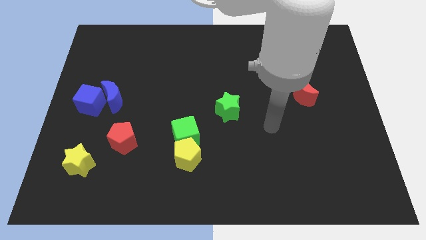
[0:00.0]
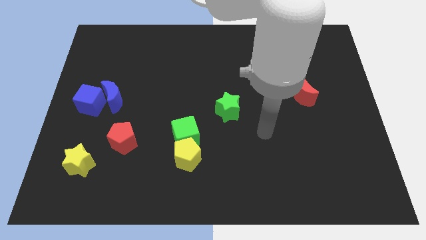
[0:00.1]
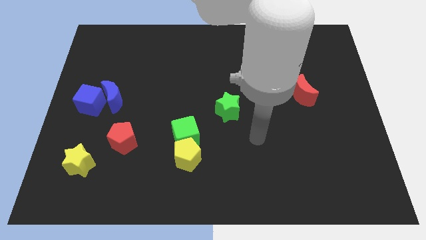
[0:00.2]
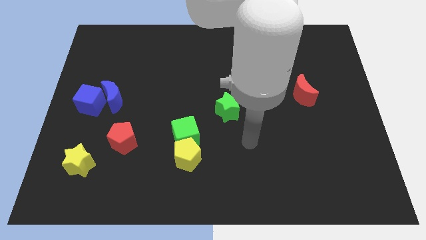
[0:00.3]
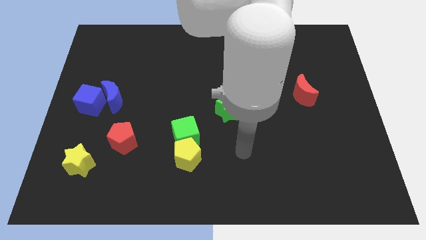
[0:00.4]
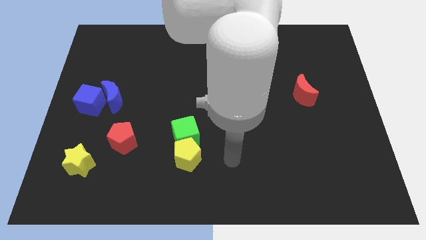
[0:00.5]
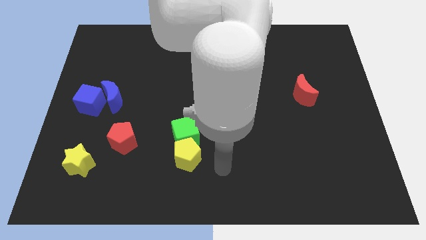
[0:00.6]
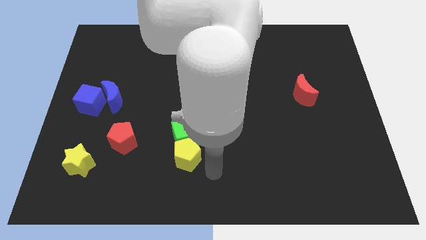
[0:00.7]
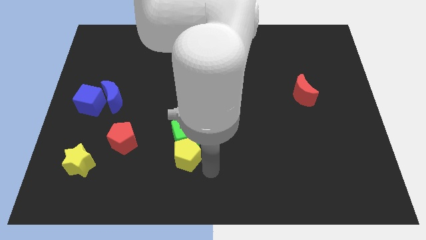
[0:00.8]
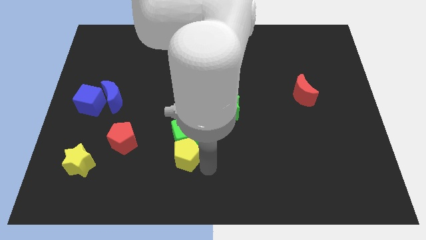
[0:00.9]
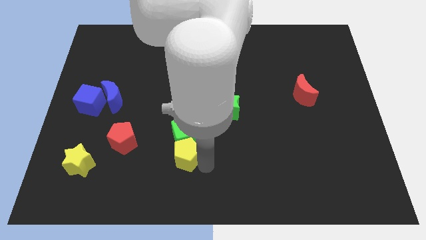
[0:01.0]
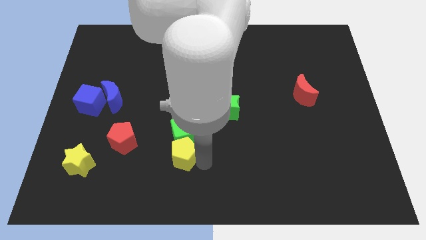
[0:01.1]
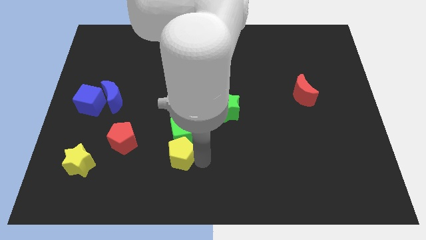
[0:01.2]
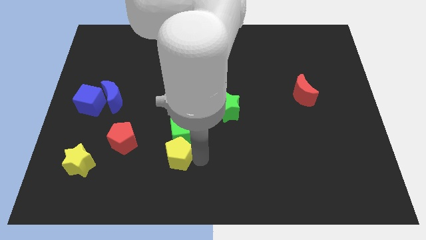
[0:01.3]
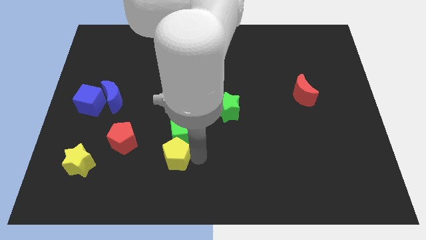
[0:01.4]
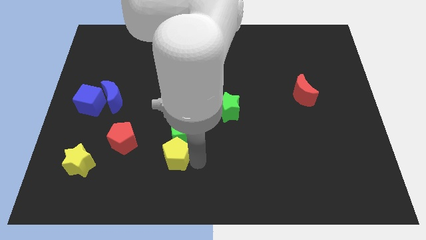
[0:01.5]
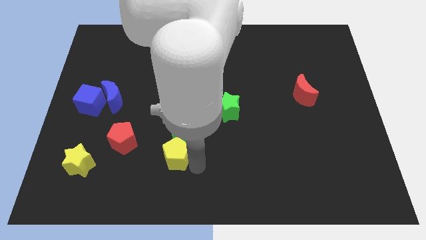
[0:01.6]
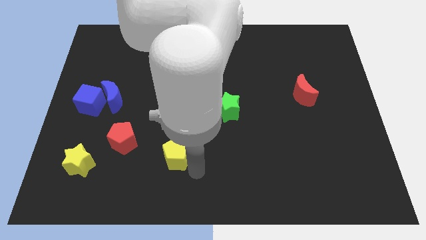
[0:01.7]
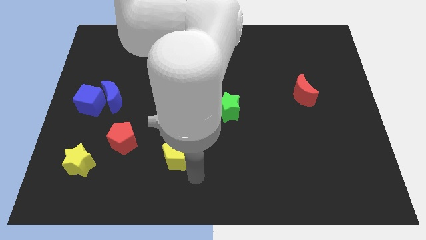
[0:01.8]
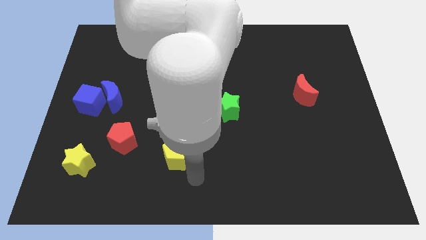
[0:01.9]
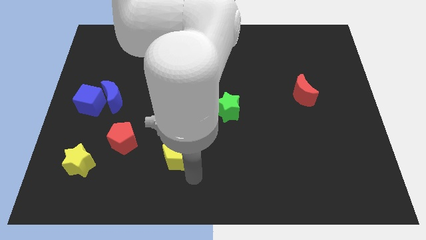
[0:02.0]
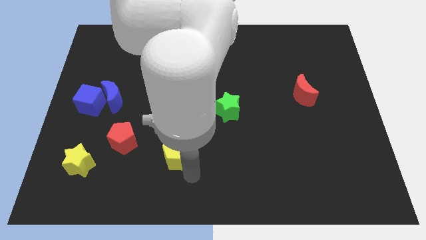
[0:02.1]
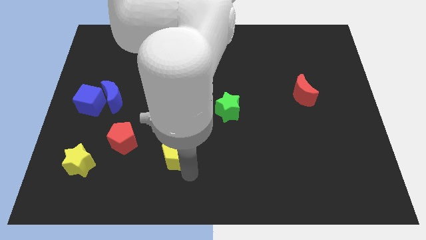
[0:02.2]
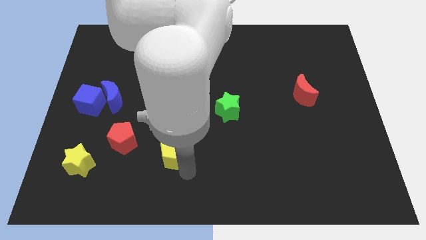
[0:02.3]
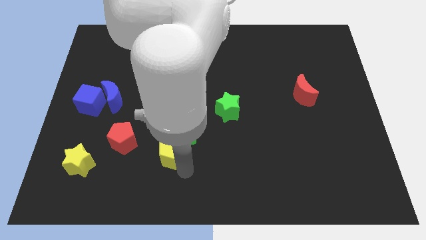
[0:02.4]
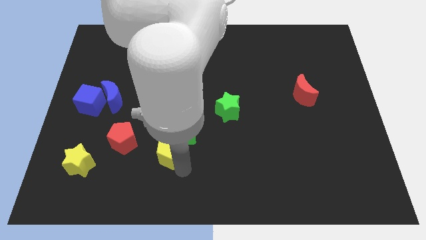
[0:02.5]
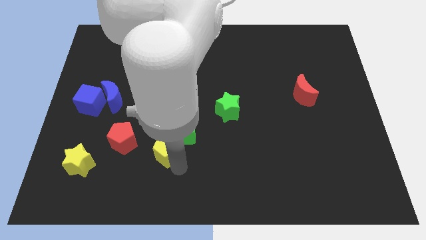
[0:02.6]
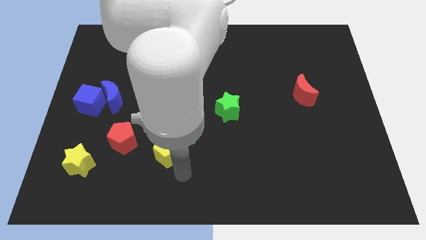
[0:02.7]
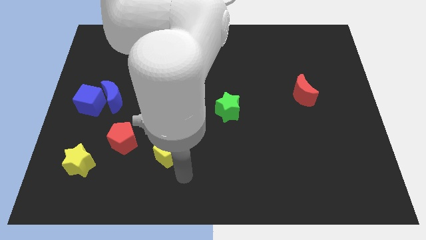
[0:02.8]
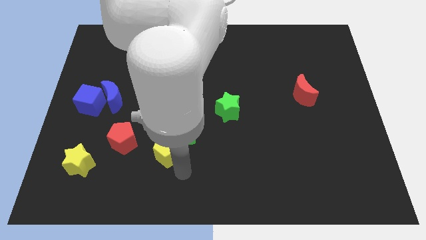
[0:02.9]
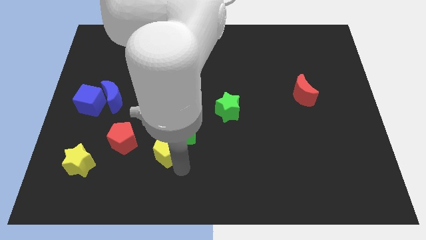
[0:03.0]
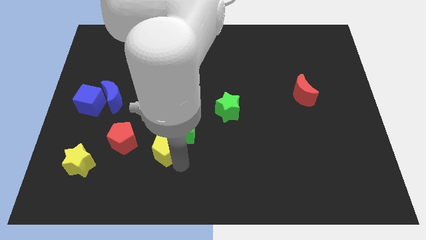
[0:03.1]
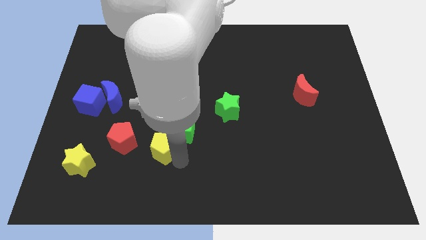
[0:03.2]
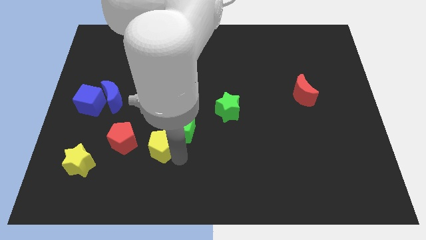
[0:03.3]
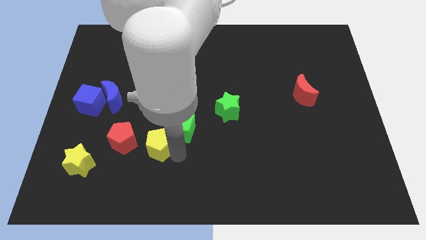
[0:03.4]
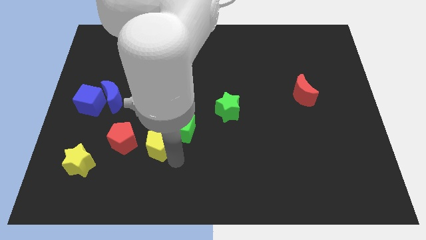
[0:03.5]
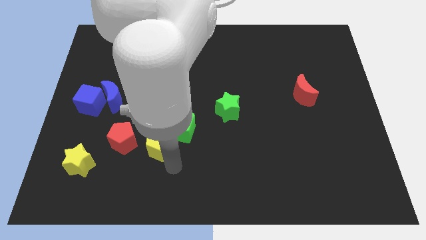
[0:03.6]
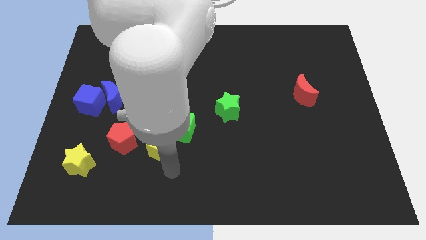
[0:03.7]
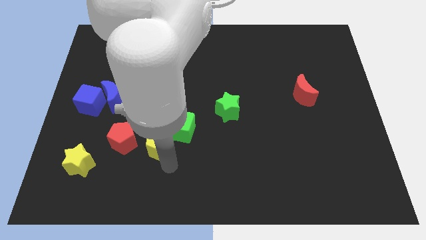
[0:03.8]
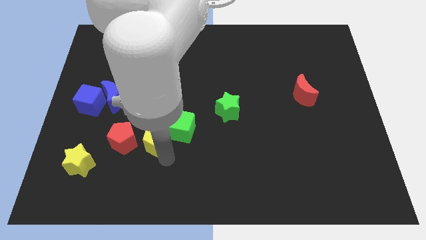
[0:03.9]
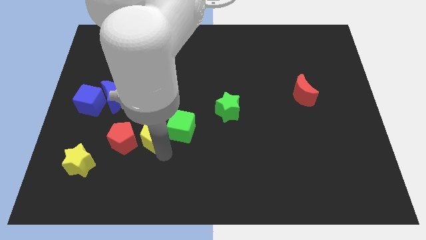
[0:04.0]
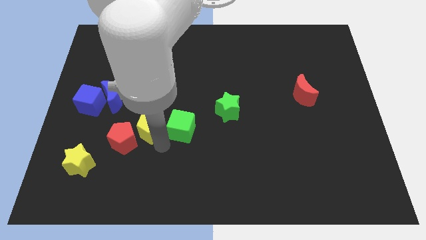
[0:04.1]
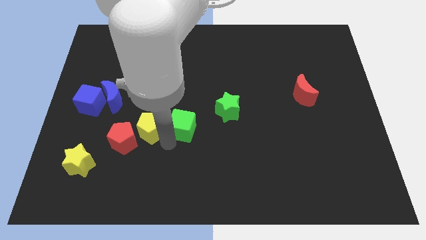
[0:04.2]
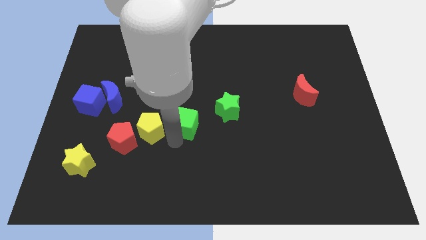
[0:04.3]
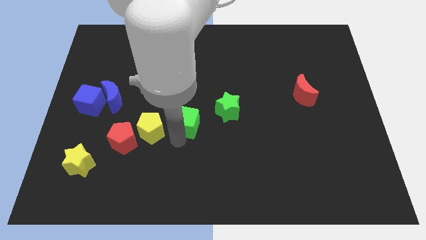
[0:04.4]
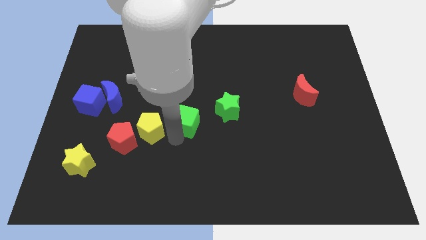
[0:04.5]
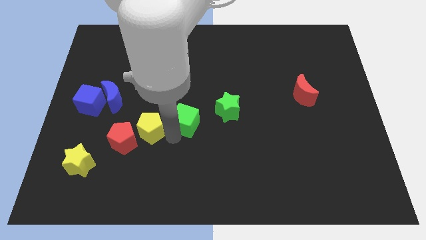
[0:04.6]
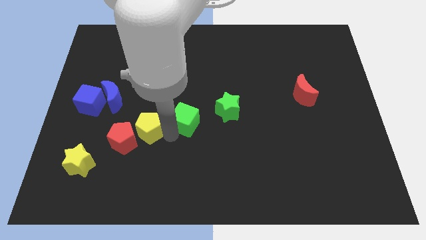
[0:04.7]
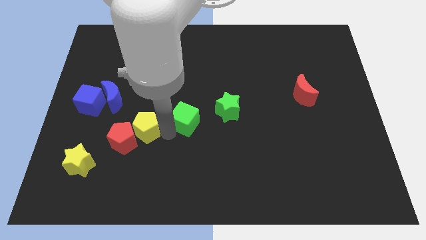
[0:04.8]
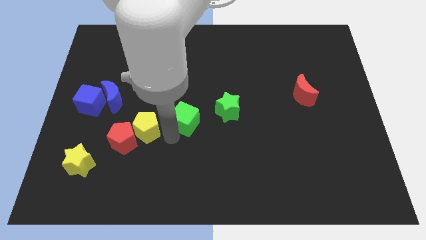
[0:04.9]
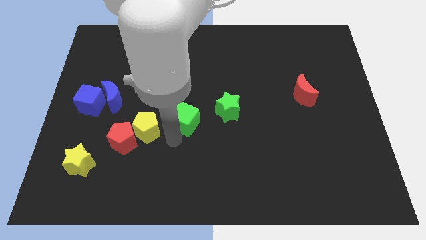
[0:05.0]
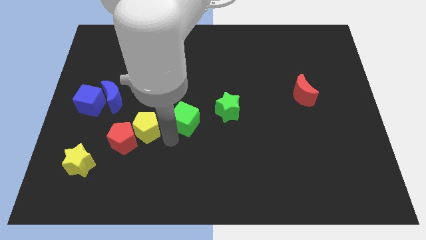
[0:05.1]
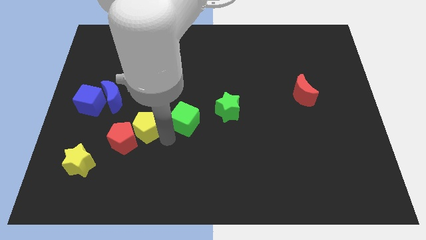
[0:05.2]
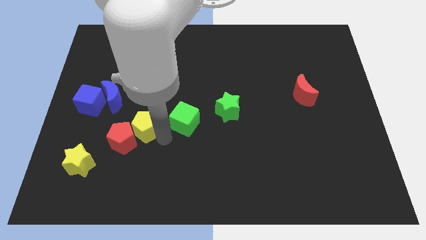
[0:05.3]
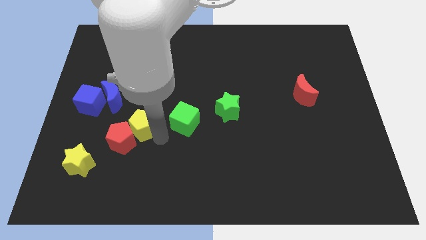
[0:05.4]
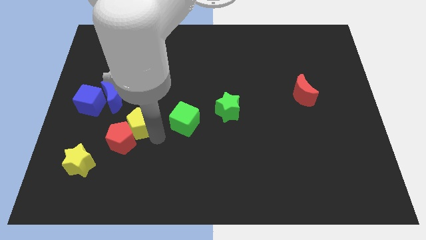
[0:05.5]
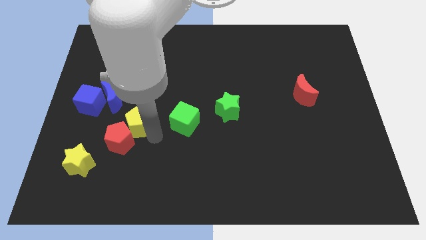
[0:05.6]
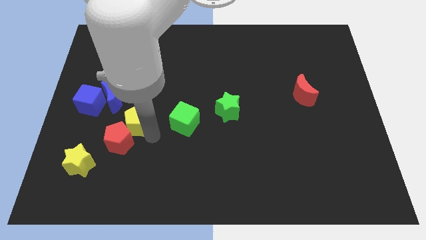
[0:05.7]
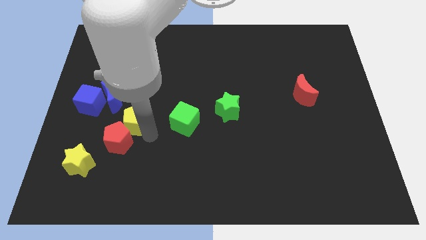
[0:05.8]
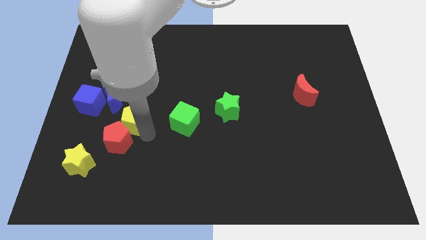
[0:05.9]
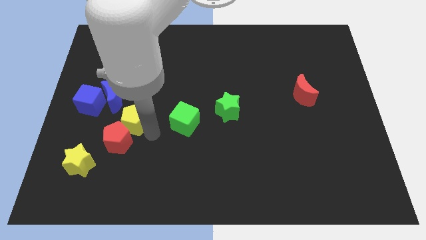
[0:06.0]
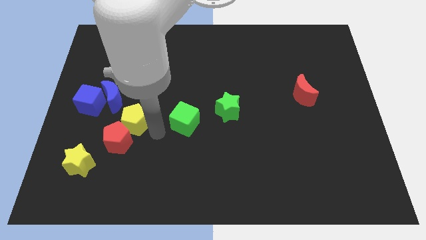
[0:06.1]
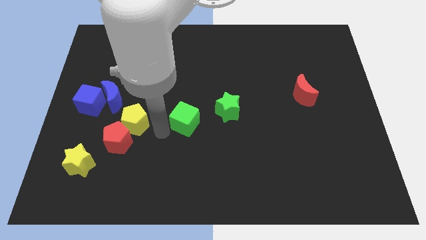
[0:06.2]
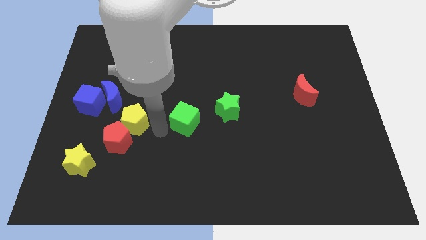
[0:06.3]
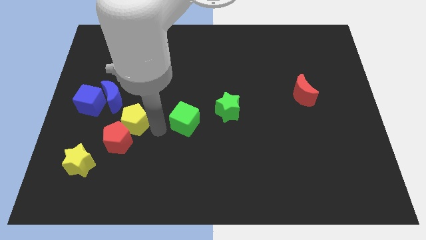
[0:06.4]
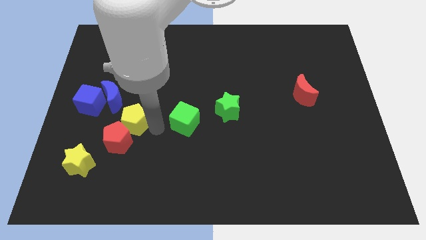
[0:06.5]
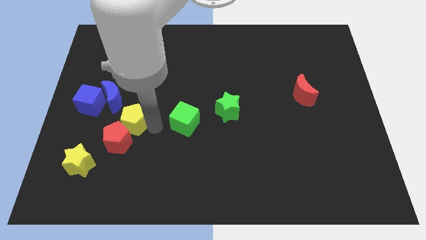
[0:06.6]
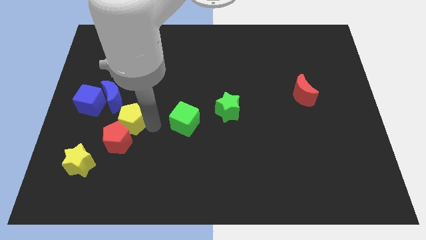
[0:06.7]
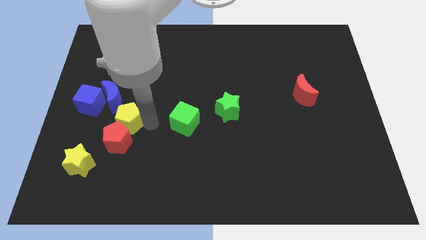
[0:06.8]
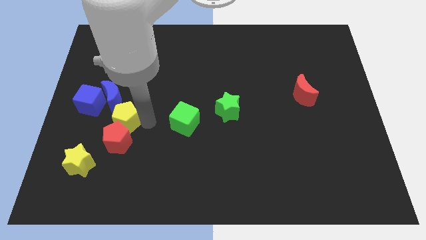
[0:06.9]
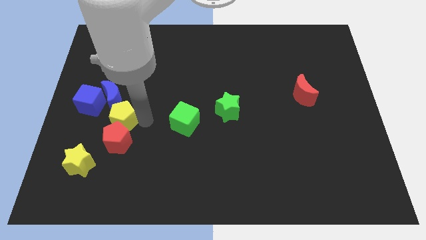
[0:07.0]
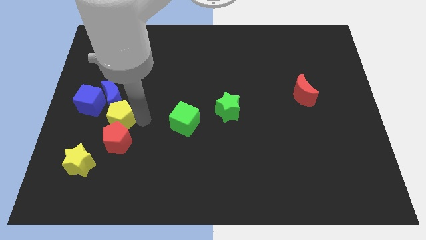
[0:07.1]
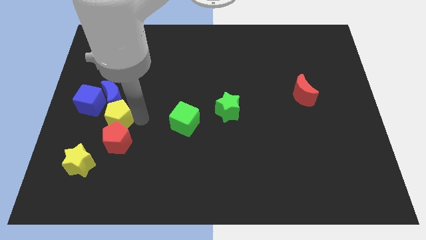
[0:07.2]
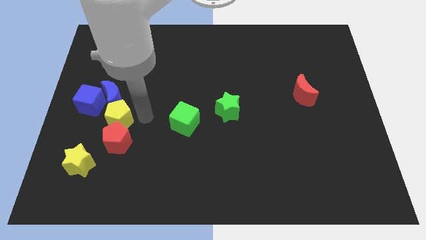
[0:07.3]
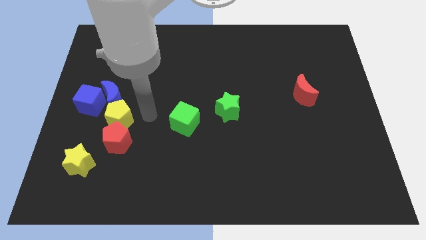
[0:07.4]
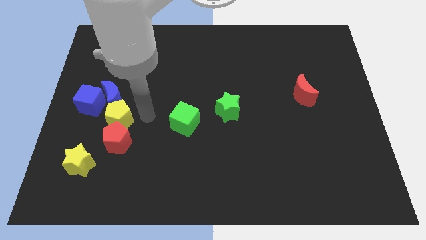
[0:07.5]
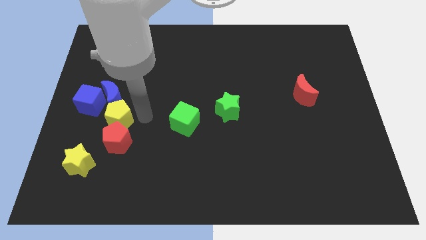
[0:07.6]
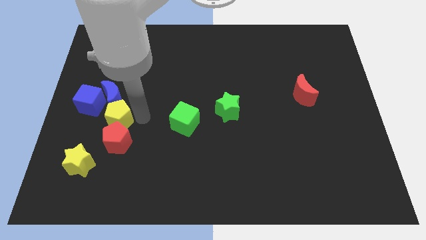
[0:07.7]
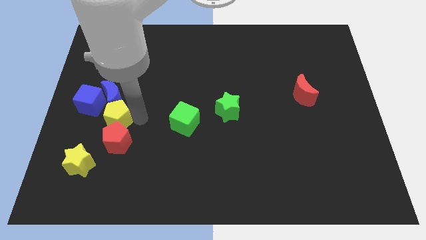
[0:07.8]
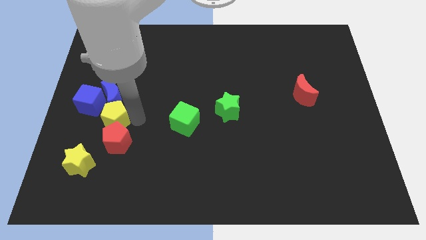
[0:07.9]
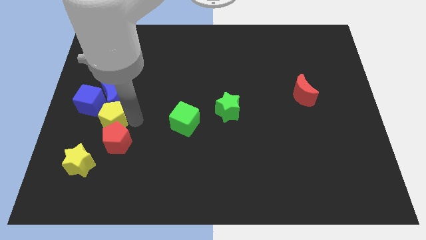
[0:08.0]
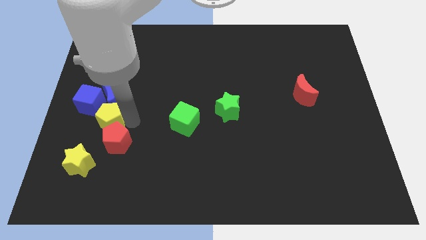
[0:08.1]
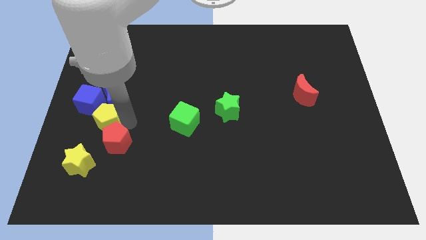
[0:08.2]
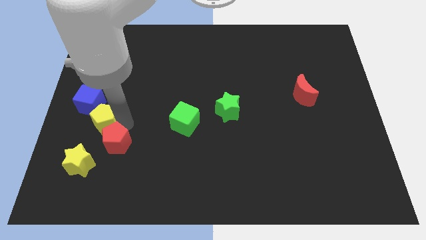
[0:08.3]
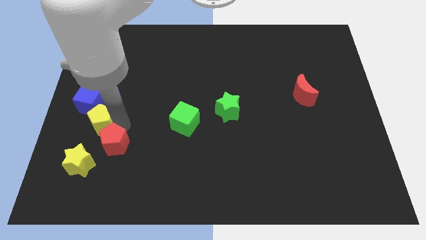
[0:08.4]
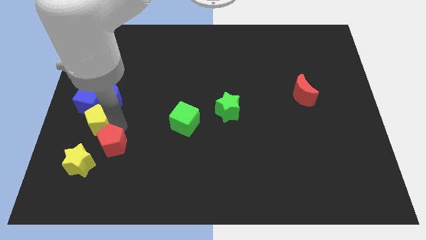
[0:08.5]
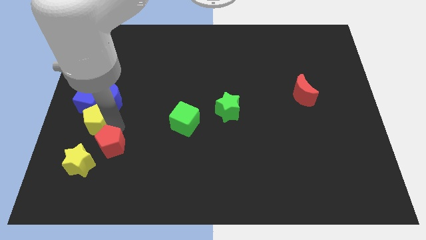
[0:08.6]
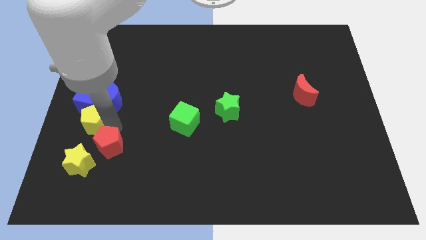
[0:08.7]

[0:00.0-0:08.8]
push the yellow pentagon to the left side

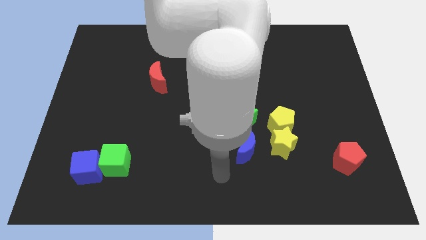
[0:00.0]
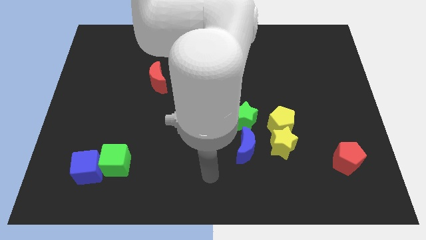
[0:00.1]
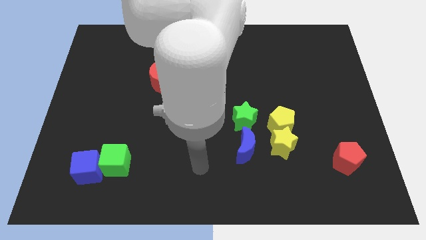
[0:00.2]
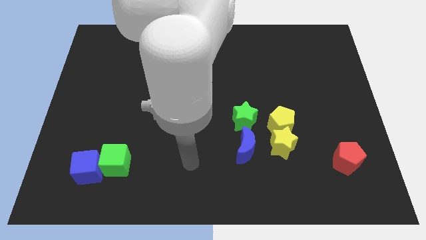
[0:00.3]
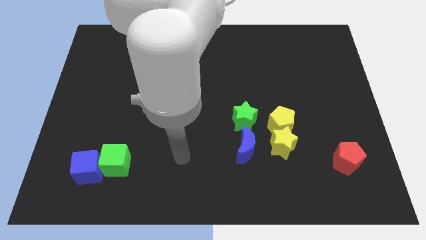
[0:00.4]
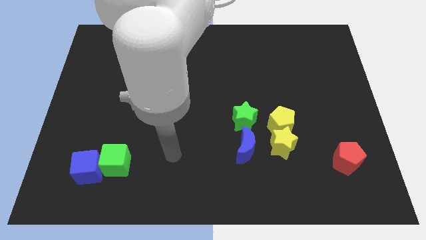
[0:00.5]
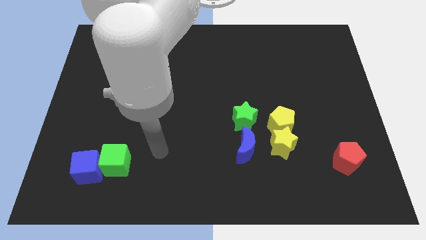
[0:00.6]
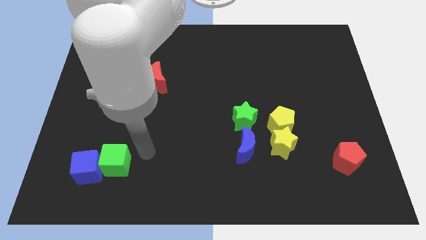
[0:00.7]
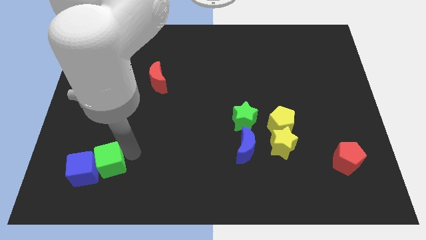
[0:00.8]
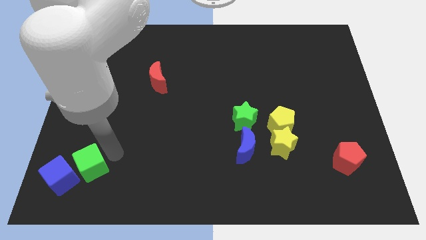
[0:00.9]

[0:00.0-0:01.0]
push the blue cube to the bottom left of the board
